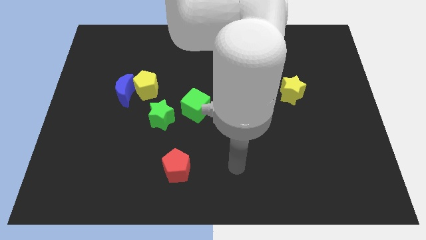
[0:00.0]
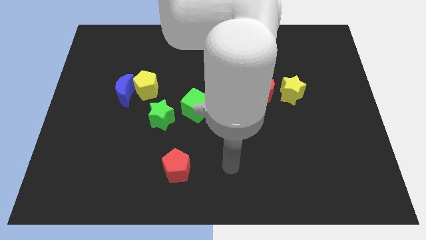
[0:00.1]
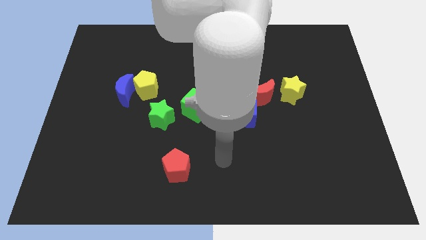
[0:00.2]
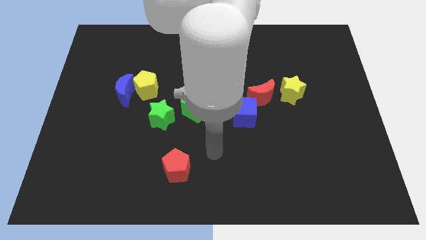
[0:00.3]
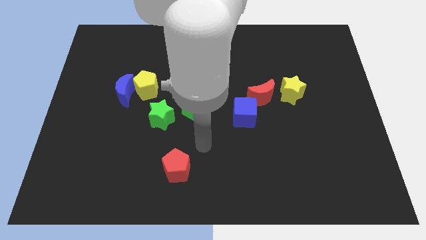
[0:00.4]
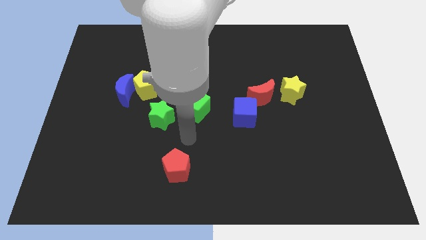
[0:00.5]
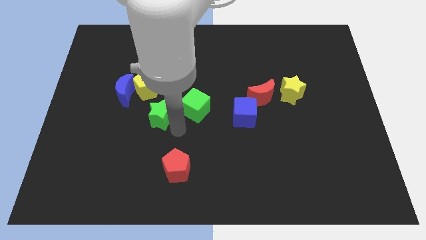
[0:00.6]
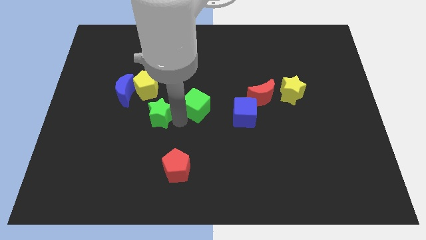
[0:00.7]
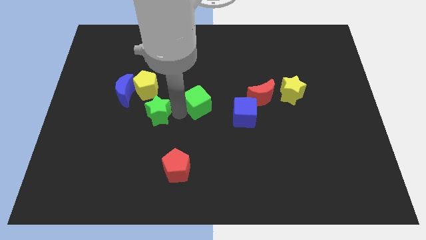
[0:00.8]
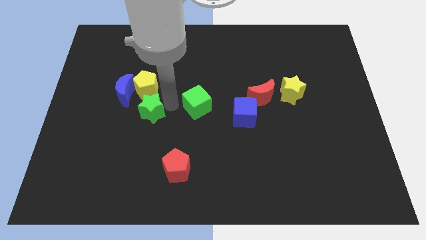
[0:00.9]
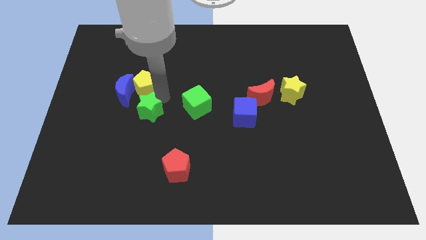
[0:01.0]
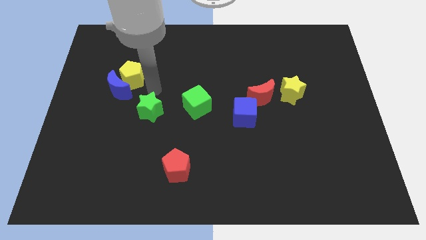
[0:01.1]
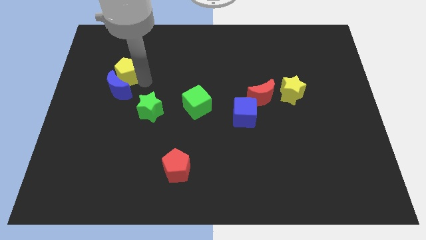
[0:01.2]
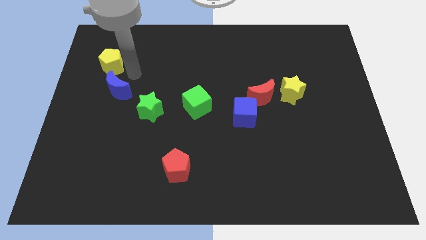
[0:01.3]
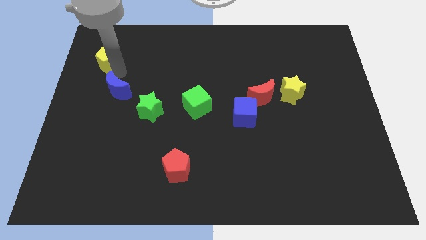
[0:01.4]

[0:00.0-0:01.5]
move the blue moon away from the yellow pentagon

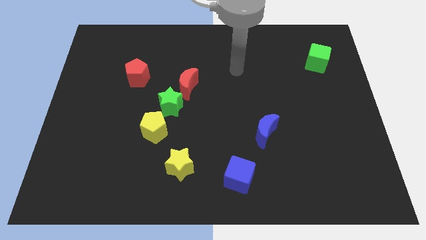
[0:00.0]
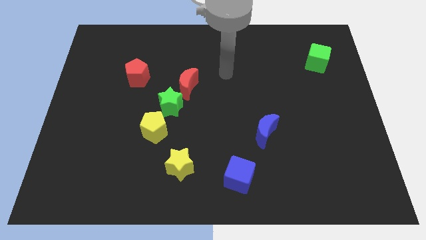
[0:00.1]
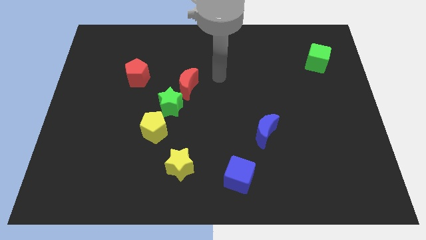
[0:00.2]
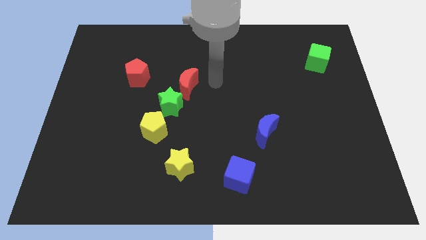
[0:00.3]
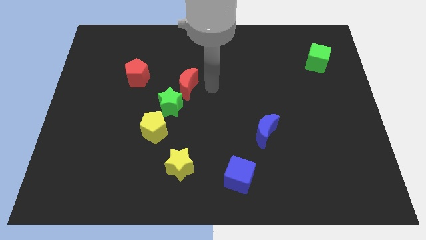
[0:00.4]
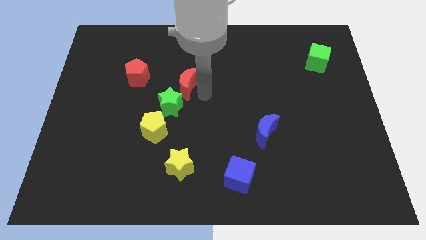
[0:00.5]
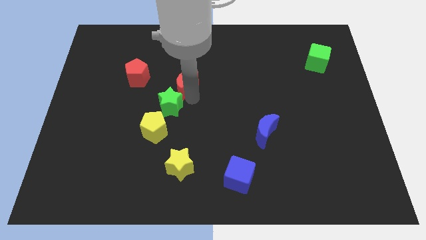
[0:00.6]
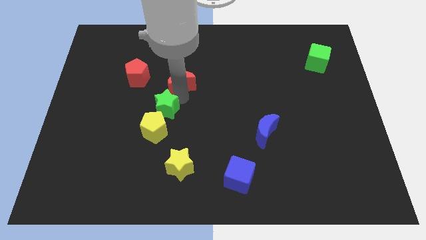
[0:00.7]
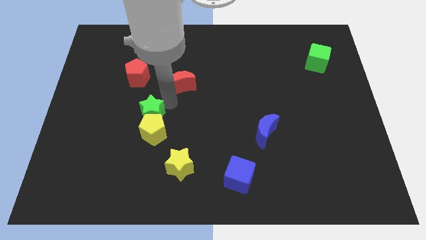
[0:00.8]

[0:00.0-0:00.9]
move the red moon away from the green star

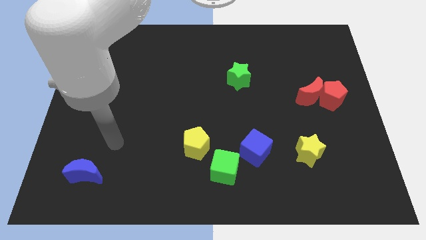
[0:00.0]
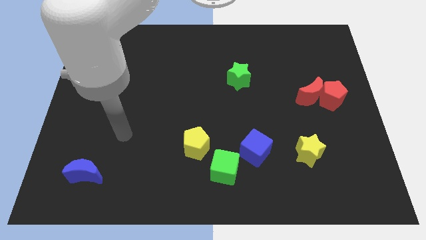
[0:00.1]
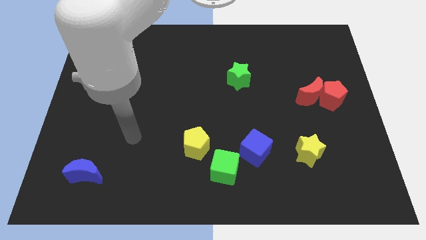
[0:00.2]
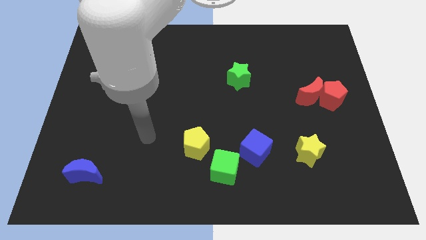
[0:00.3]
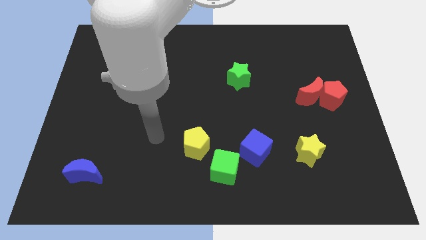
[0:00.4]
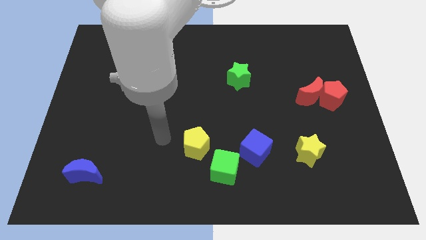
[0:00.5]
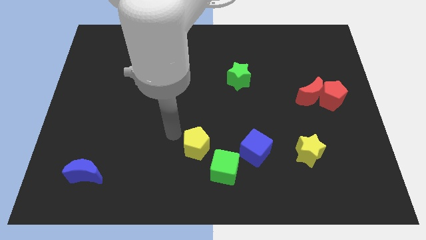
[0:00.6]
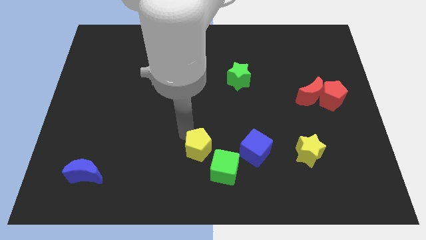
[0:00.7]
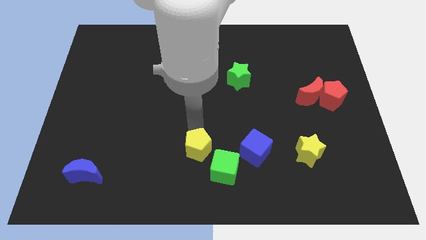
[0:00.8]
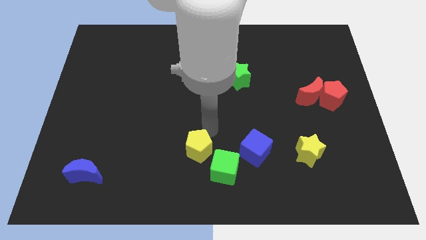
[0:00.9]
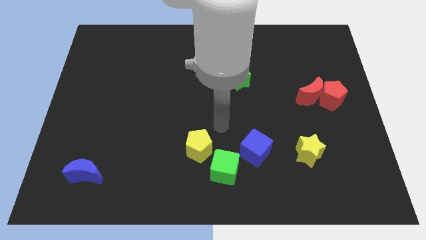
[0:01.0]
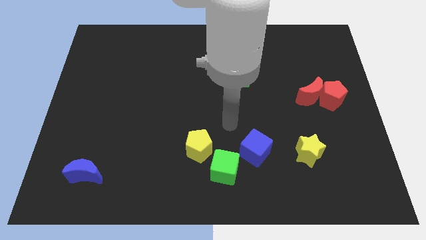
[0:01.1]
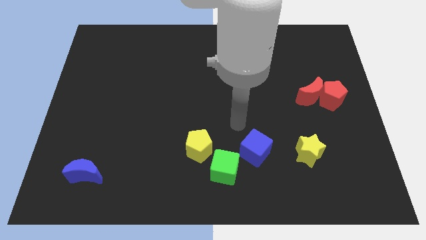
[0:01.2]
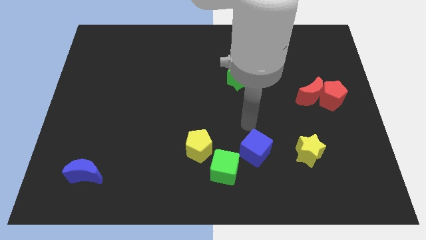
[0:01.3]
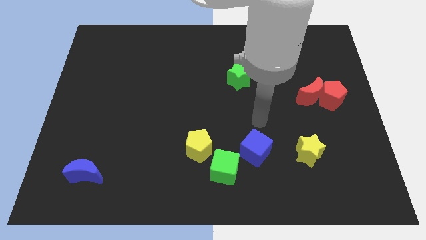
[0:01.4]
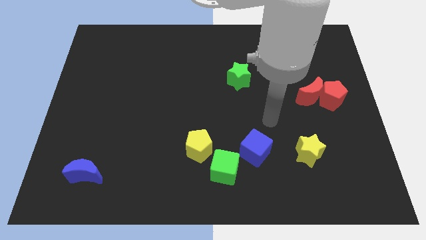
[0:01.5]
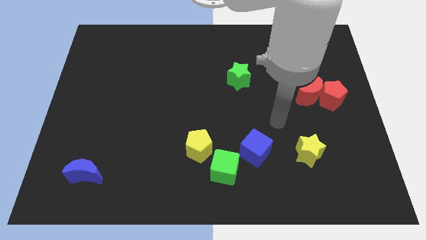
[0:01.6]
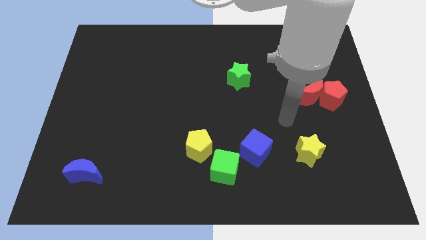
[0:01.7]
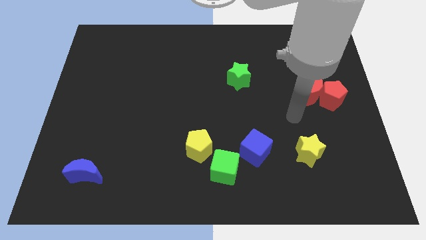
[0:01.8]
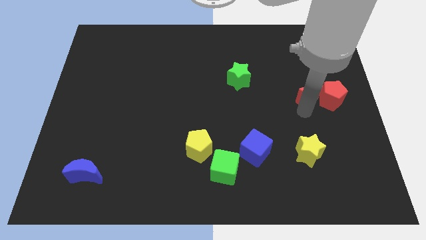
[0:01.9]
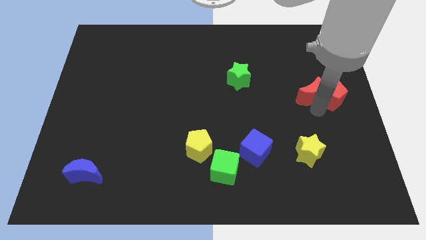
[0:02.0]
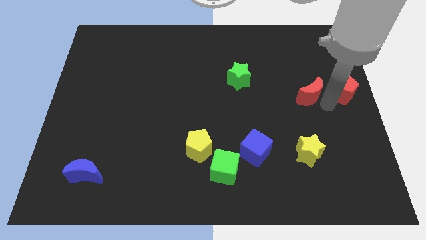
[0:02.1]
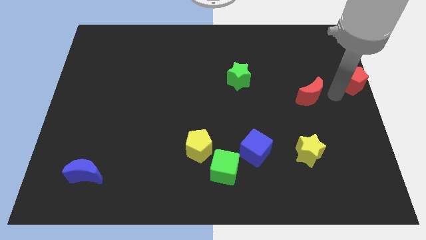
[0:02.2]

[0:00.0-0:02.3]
pull the red moon apart from the red pentagon

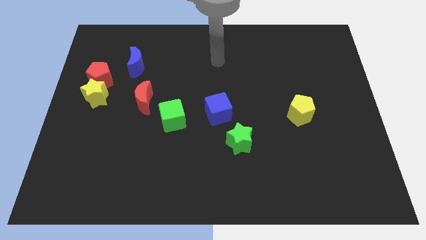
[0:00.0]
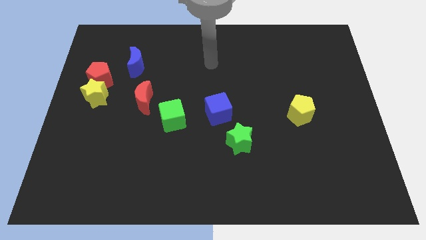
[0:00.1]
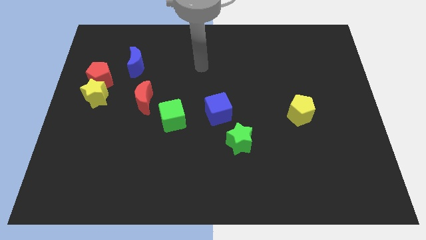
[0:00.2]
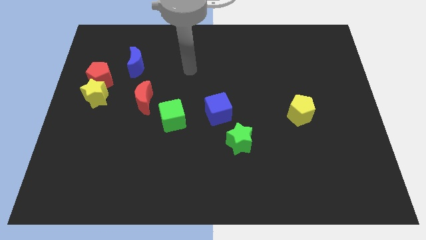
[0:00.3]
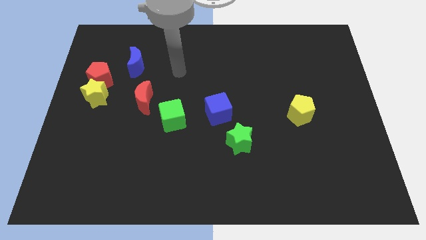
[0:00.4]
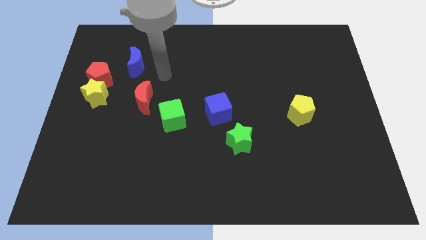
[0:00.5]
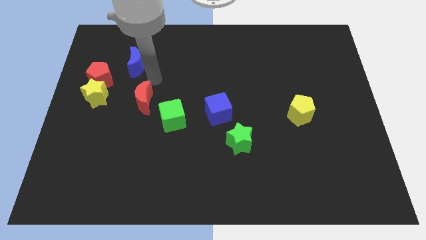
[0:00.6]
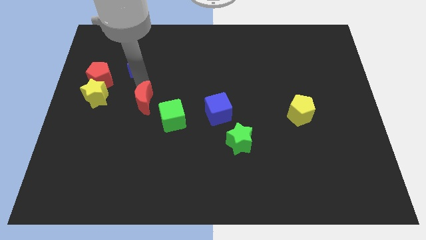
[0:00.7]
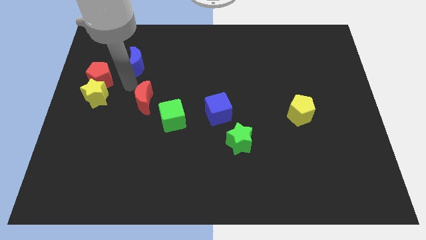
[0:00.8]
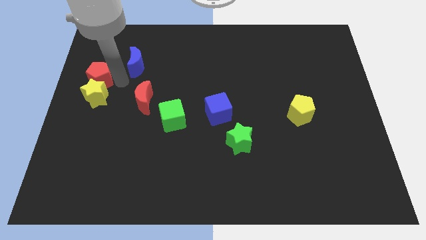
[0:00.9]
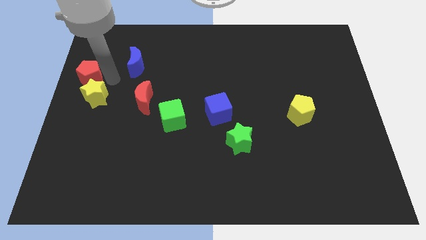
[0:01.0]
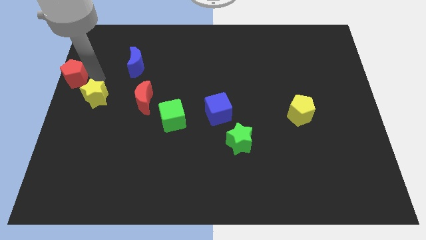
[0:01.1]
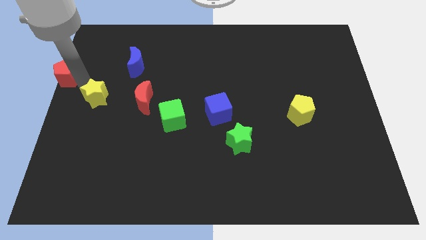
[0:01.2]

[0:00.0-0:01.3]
pull the yellow star apart from the red pentagon

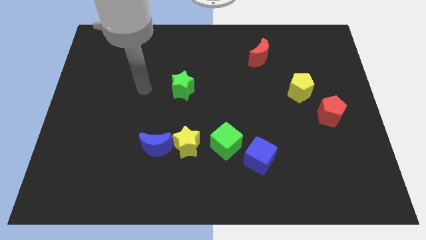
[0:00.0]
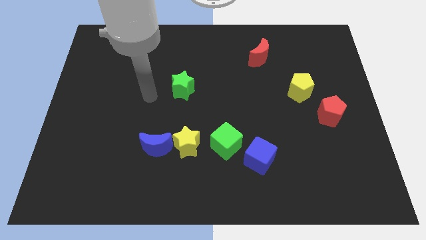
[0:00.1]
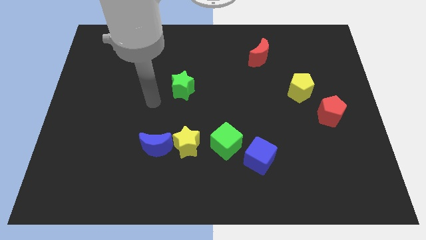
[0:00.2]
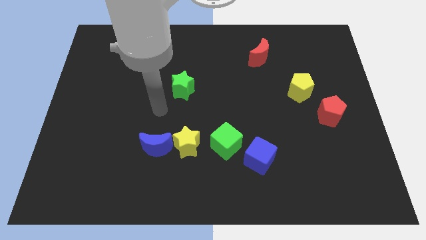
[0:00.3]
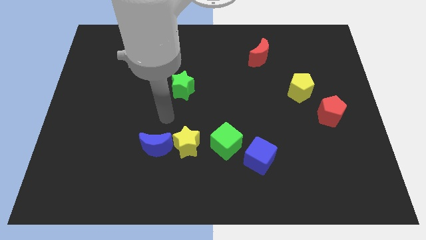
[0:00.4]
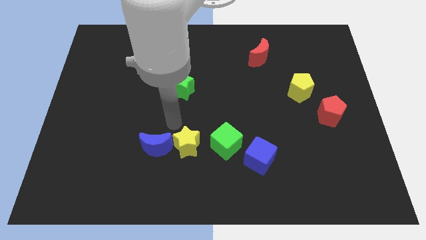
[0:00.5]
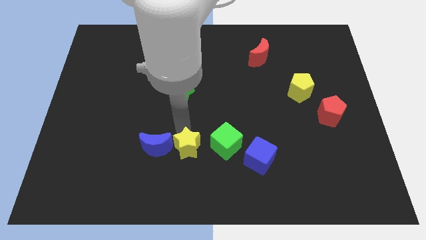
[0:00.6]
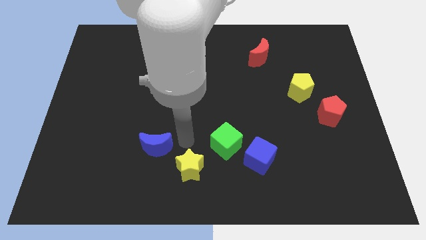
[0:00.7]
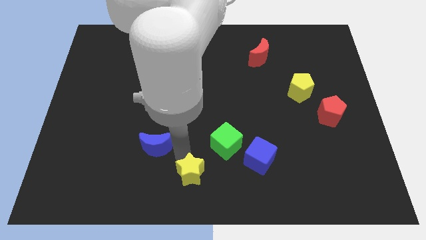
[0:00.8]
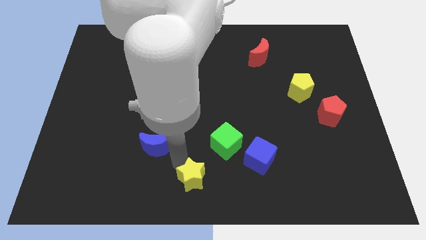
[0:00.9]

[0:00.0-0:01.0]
move the blue moon away from the yellow star

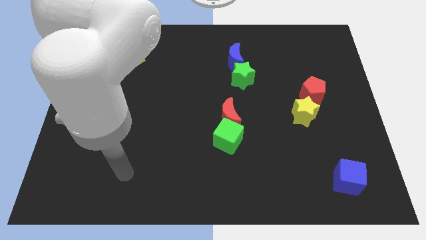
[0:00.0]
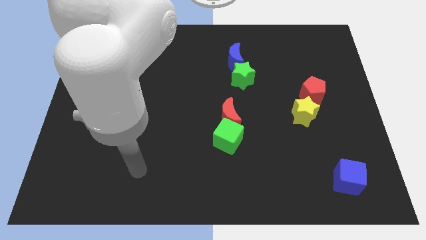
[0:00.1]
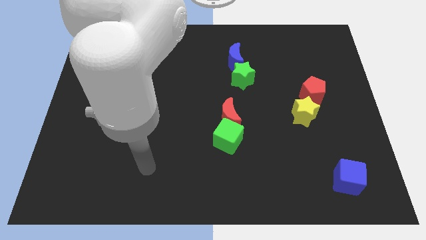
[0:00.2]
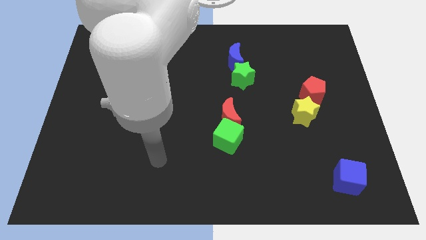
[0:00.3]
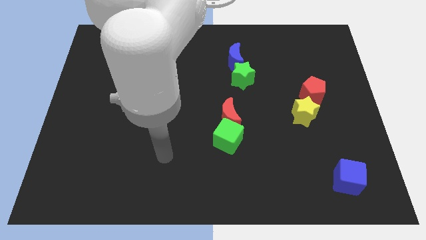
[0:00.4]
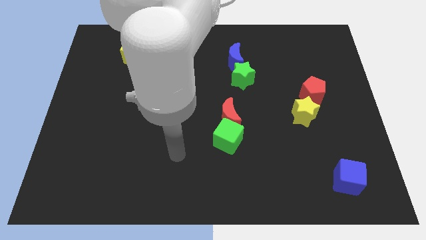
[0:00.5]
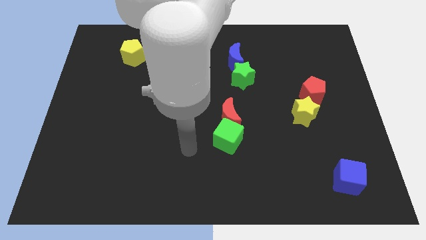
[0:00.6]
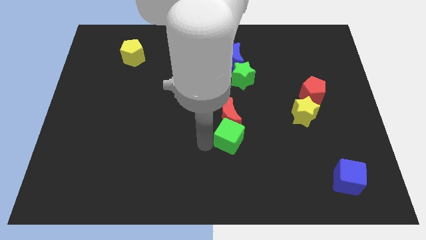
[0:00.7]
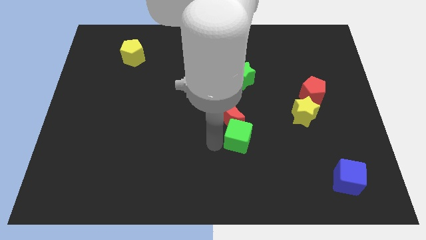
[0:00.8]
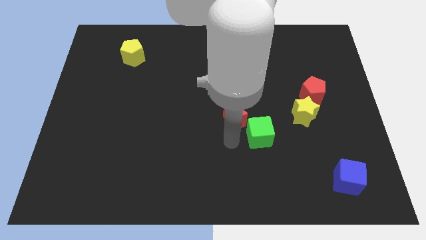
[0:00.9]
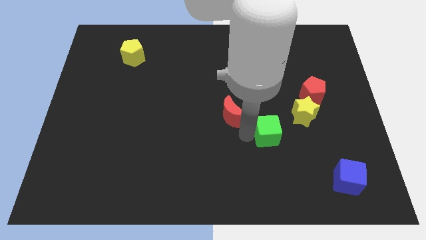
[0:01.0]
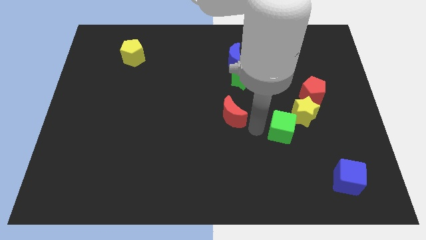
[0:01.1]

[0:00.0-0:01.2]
move the red moon away from the green cube

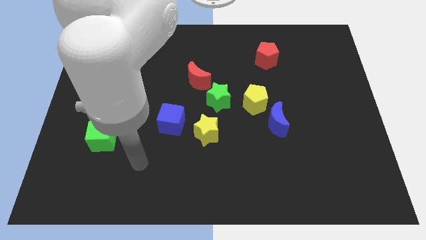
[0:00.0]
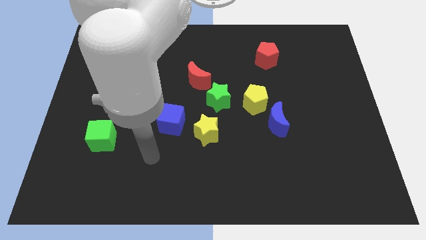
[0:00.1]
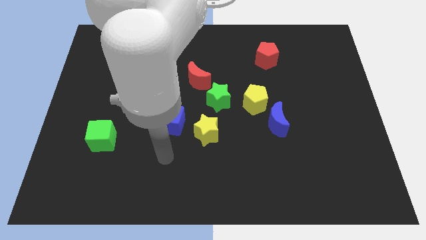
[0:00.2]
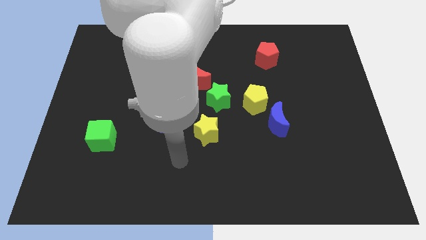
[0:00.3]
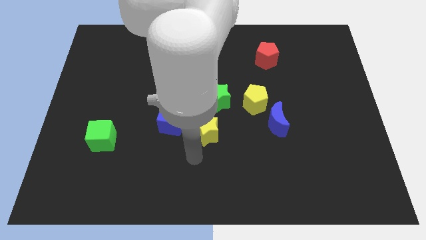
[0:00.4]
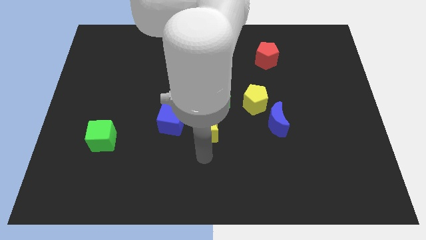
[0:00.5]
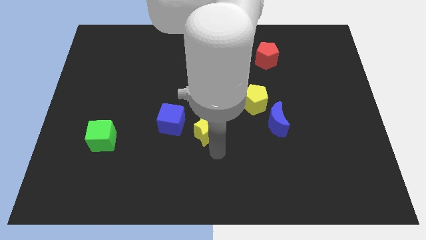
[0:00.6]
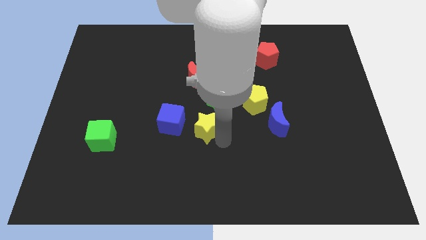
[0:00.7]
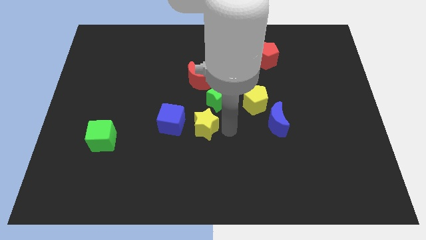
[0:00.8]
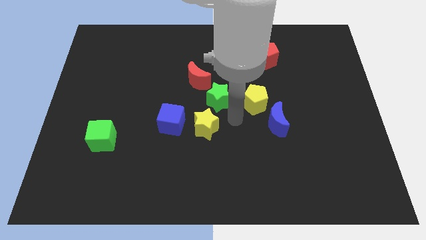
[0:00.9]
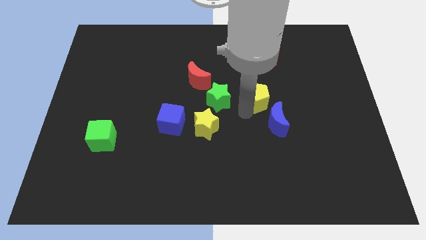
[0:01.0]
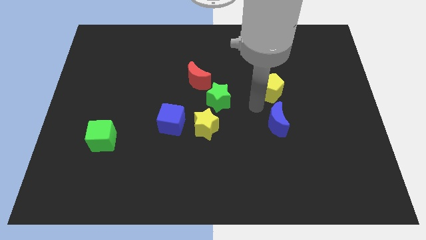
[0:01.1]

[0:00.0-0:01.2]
pull the blue moon apart from the yellow pentagon
